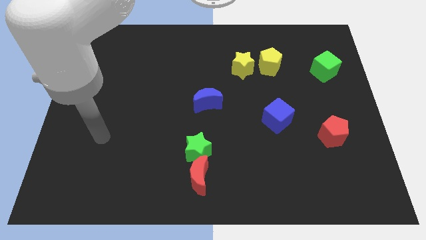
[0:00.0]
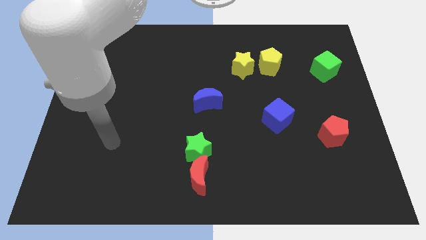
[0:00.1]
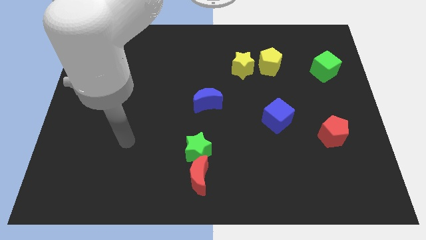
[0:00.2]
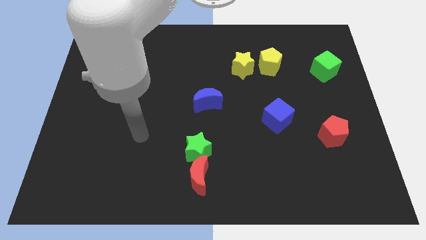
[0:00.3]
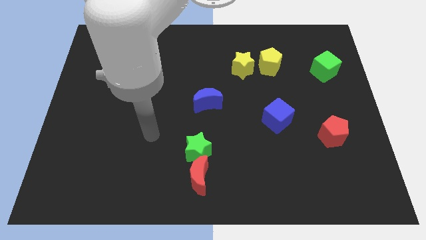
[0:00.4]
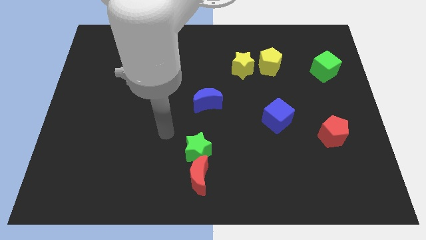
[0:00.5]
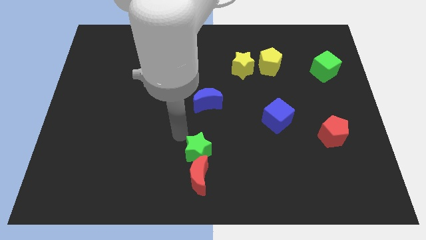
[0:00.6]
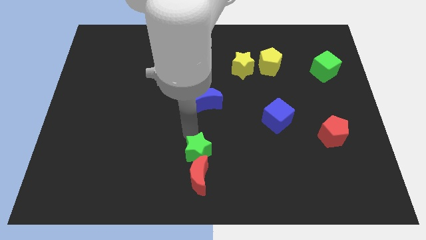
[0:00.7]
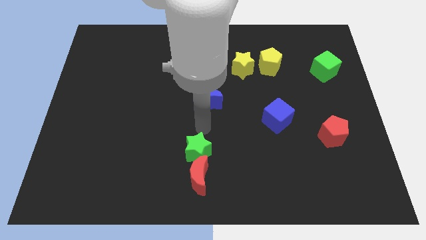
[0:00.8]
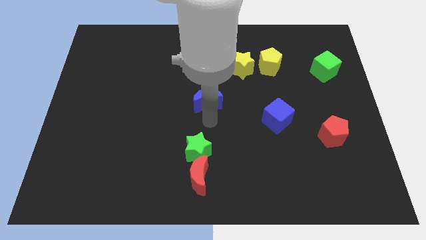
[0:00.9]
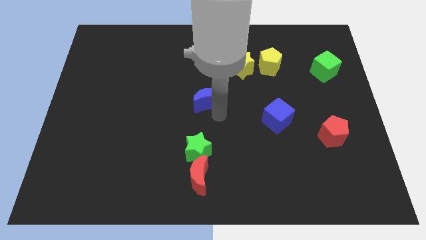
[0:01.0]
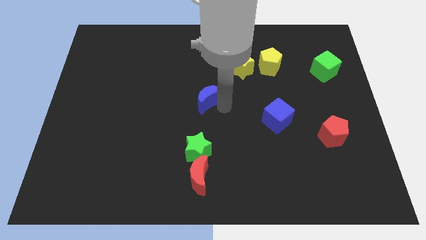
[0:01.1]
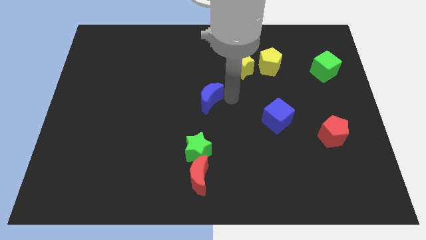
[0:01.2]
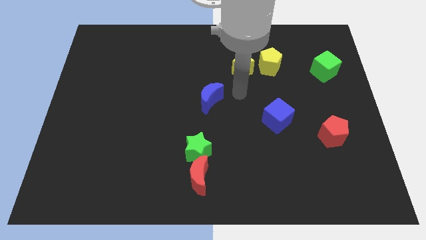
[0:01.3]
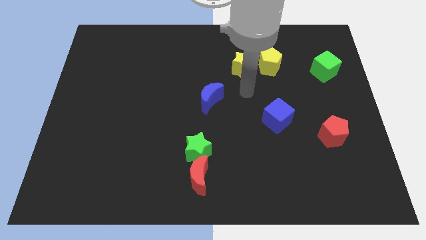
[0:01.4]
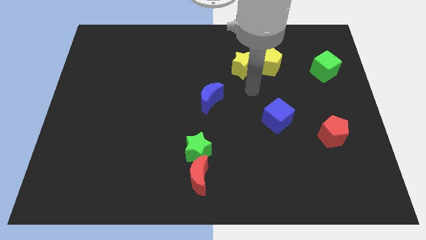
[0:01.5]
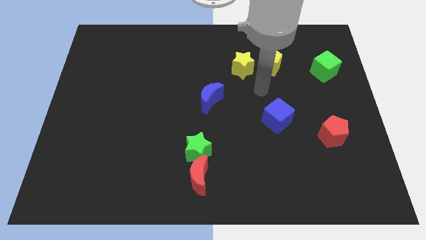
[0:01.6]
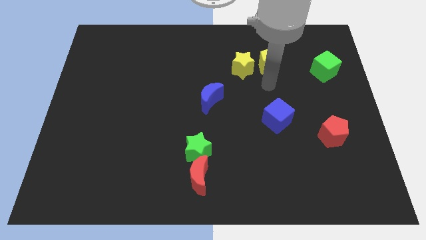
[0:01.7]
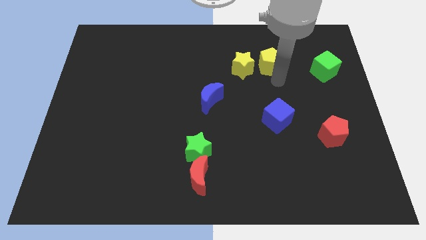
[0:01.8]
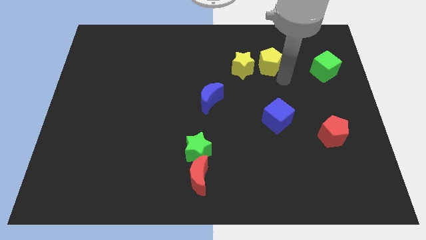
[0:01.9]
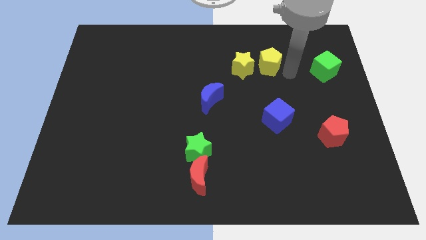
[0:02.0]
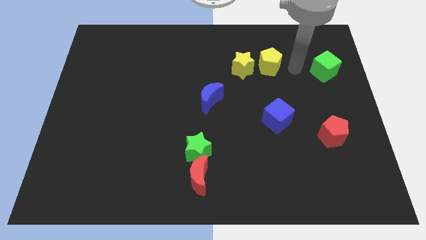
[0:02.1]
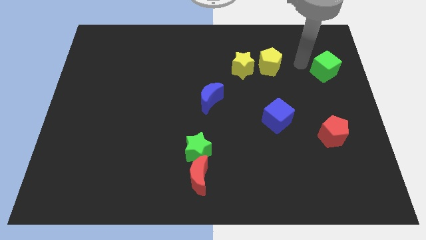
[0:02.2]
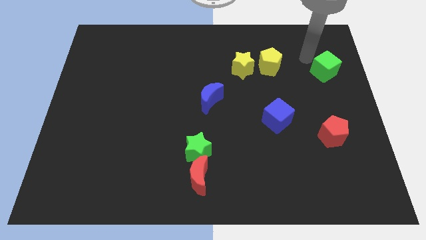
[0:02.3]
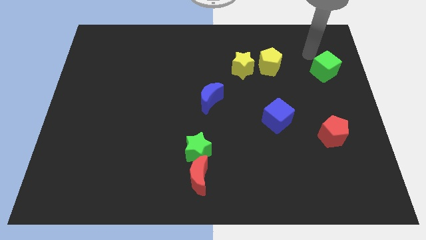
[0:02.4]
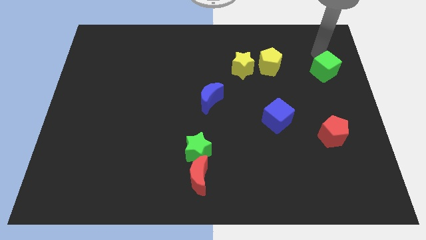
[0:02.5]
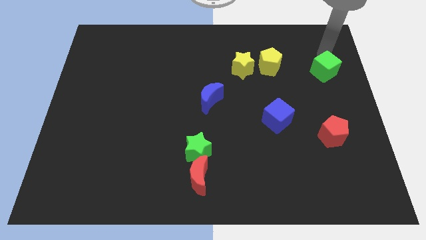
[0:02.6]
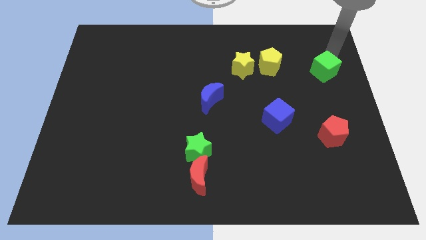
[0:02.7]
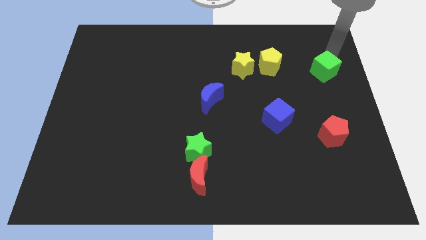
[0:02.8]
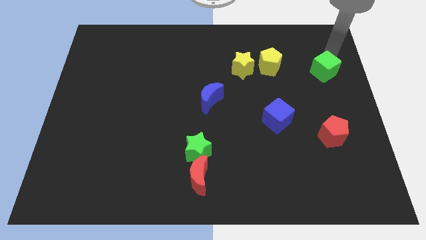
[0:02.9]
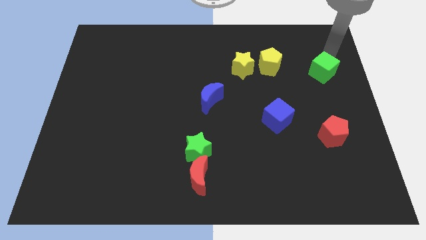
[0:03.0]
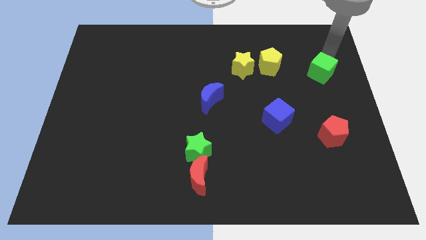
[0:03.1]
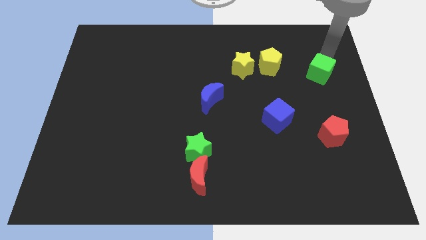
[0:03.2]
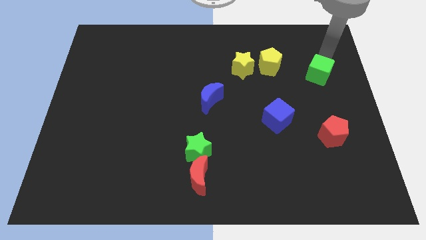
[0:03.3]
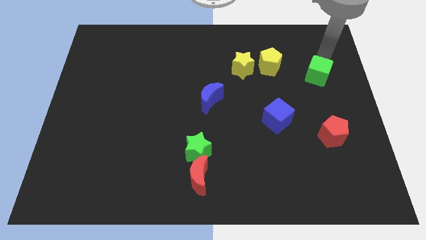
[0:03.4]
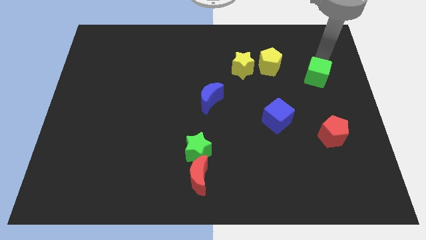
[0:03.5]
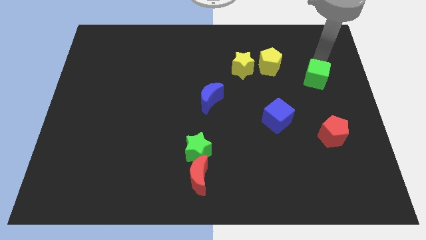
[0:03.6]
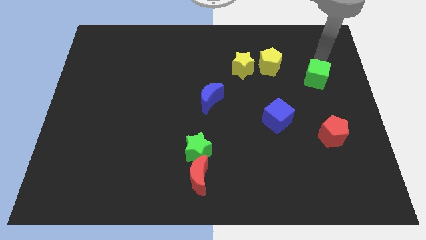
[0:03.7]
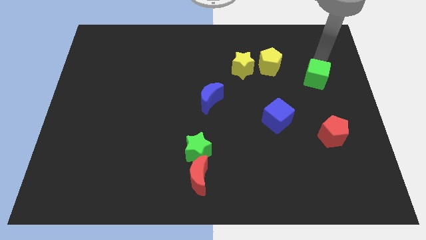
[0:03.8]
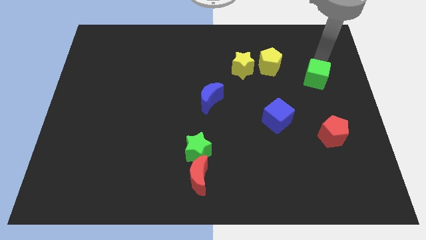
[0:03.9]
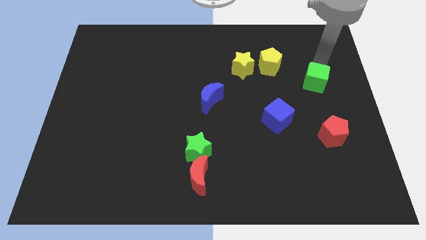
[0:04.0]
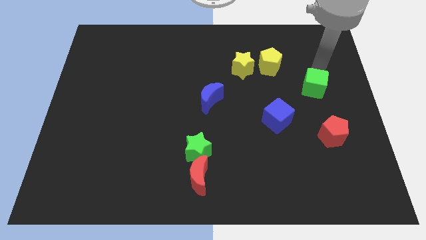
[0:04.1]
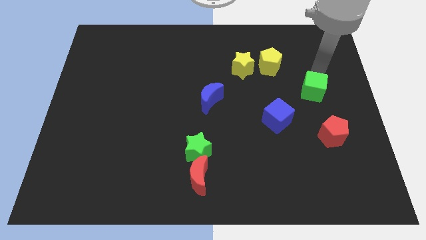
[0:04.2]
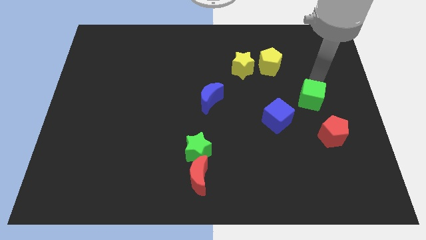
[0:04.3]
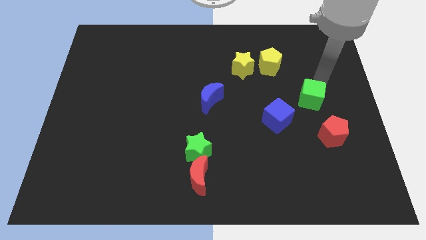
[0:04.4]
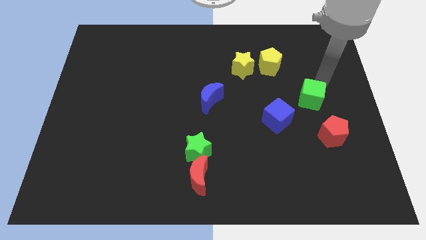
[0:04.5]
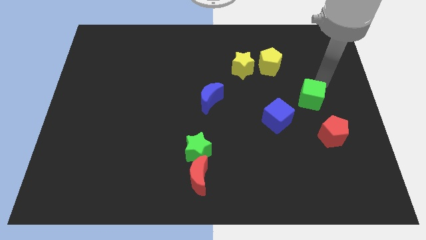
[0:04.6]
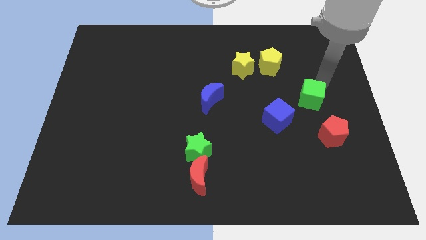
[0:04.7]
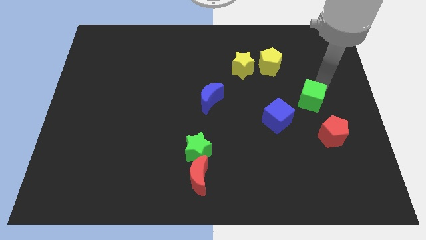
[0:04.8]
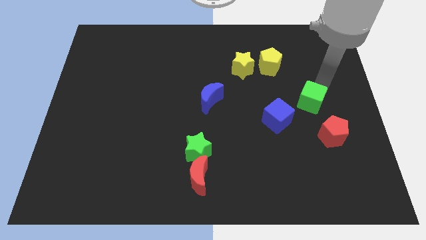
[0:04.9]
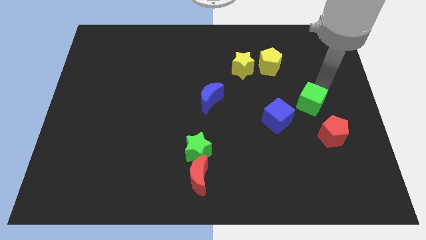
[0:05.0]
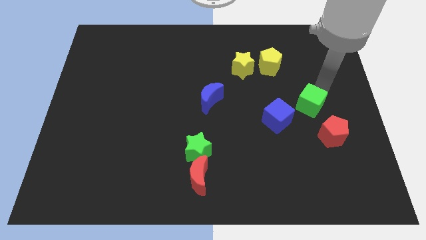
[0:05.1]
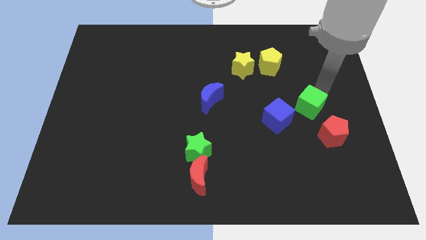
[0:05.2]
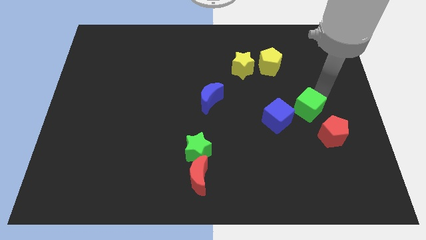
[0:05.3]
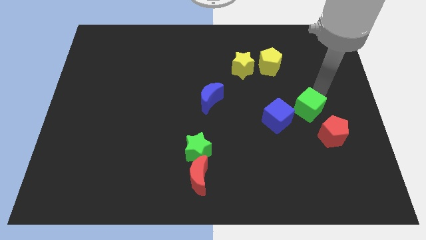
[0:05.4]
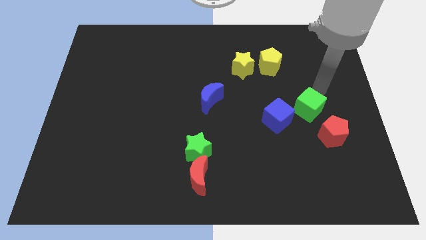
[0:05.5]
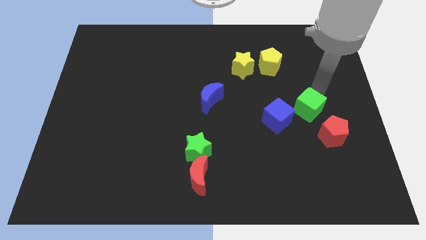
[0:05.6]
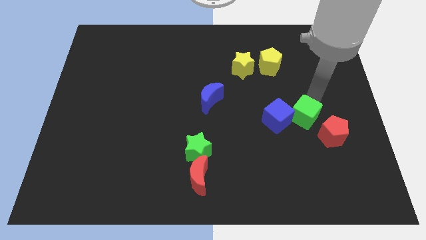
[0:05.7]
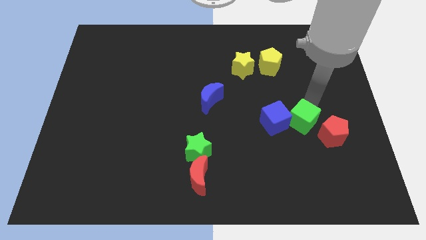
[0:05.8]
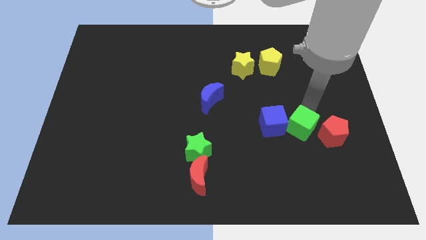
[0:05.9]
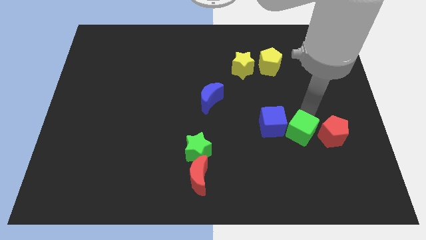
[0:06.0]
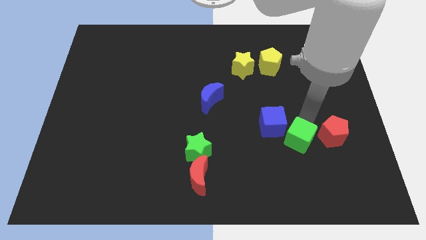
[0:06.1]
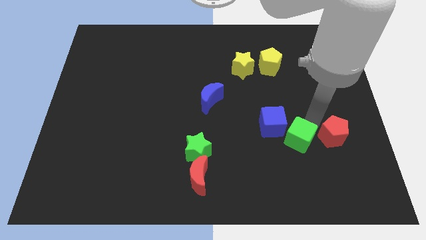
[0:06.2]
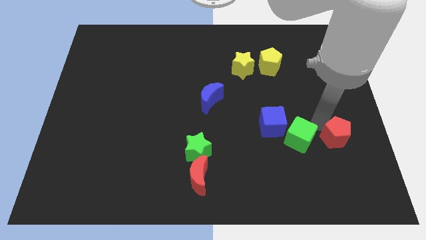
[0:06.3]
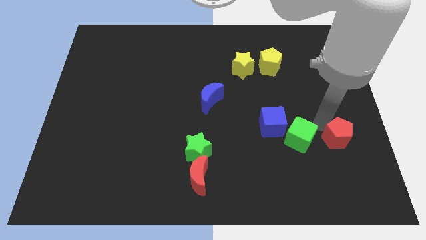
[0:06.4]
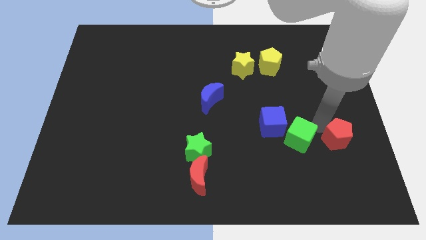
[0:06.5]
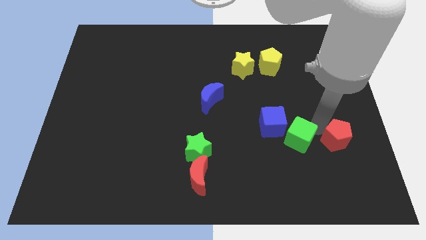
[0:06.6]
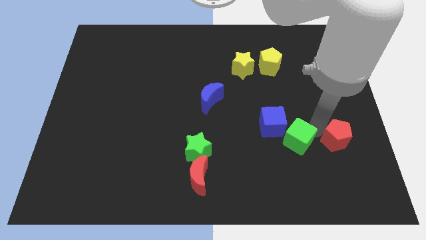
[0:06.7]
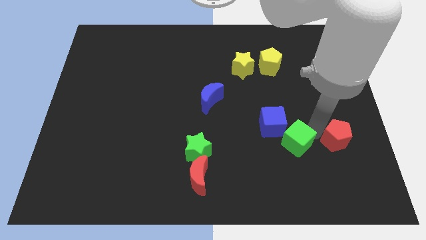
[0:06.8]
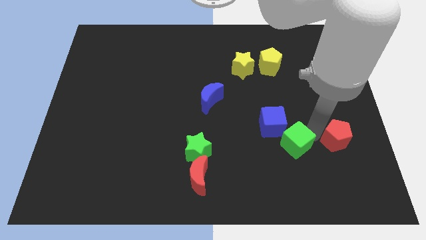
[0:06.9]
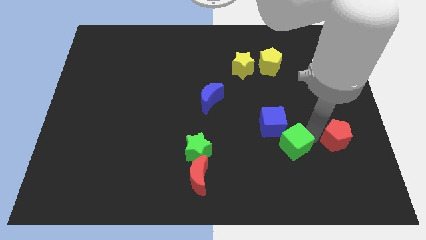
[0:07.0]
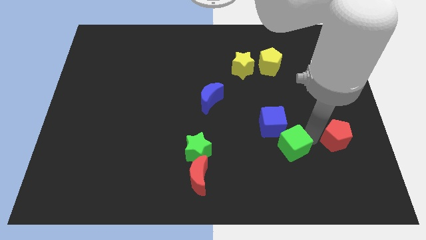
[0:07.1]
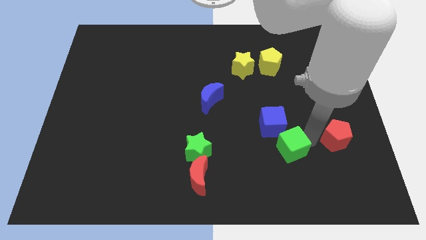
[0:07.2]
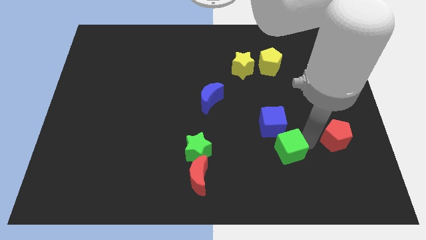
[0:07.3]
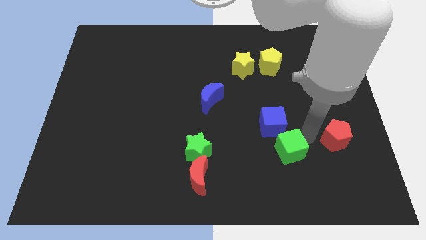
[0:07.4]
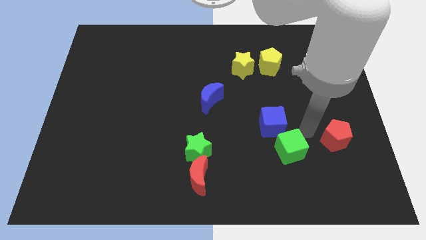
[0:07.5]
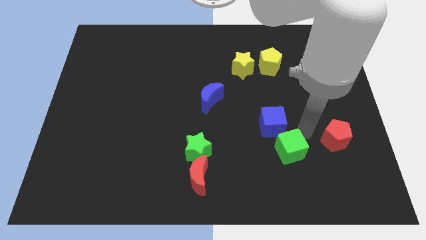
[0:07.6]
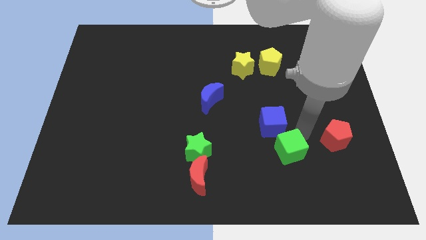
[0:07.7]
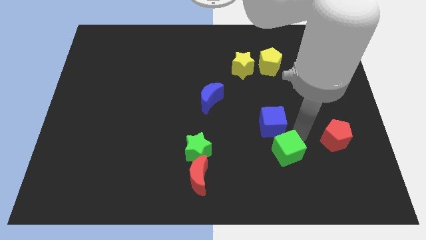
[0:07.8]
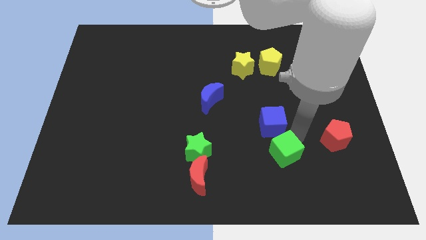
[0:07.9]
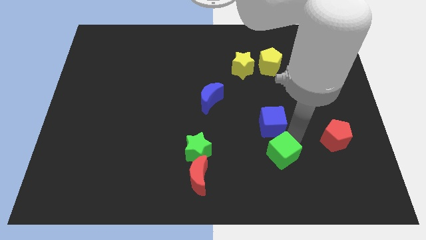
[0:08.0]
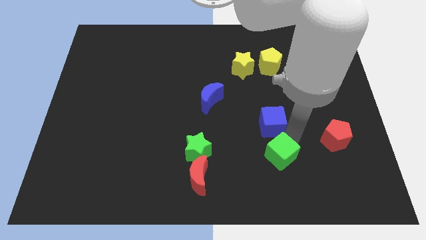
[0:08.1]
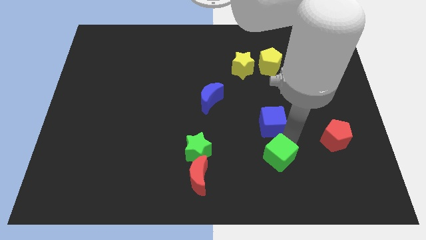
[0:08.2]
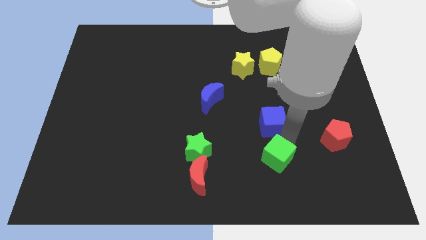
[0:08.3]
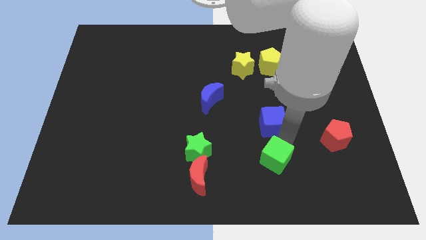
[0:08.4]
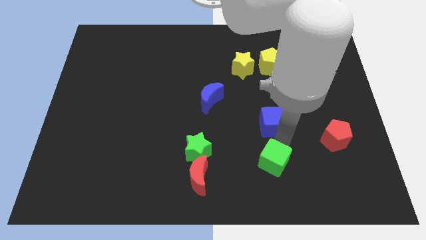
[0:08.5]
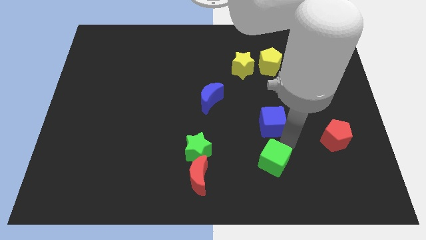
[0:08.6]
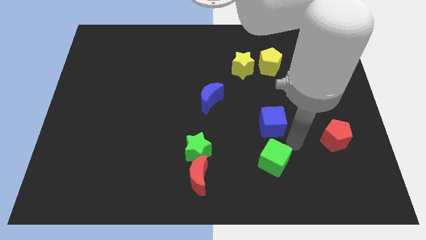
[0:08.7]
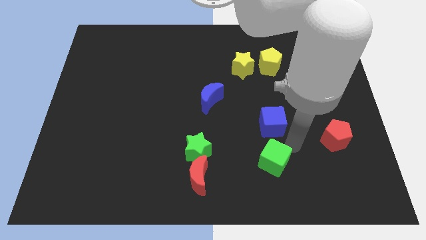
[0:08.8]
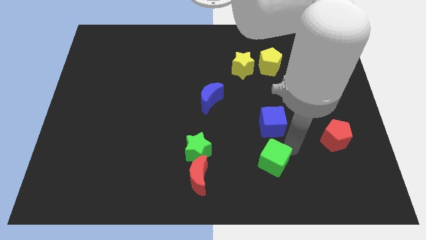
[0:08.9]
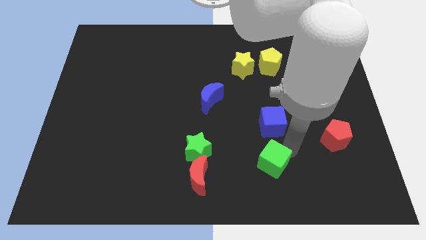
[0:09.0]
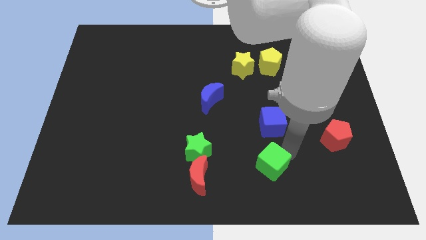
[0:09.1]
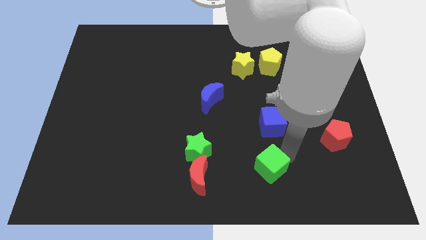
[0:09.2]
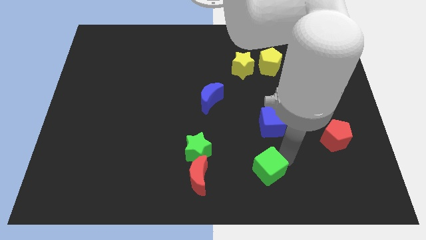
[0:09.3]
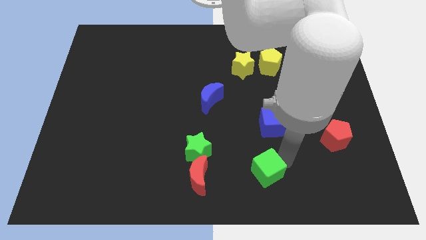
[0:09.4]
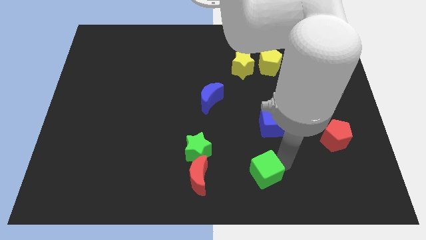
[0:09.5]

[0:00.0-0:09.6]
move the green cube to the bottom side
